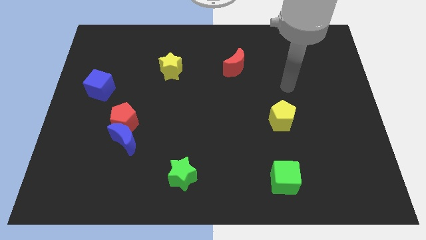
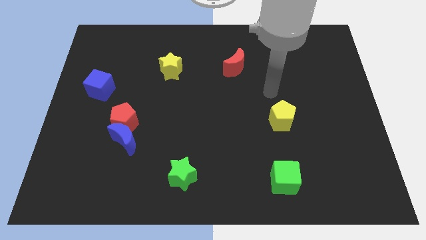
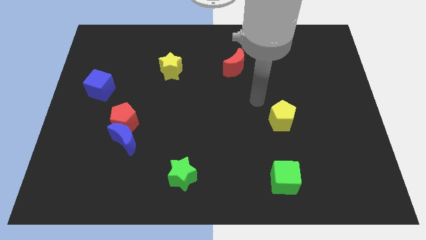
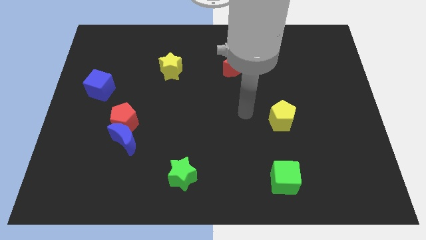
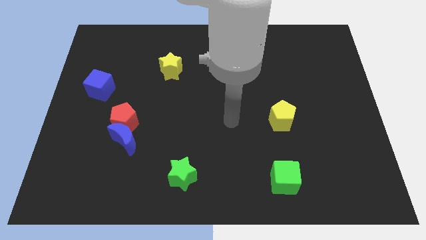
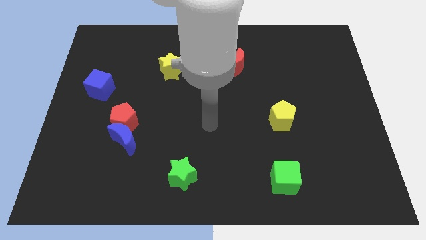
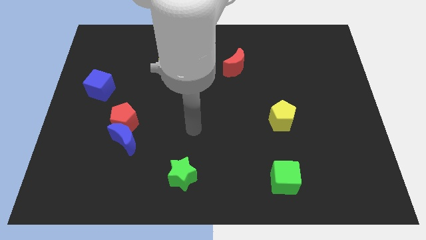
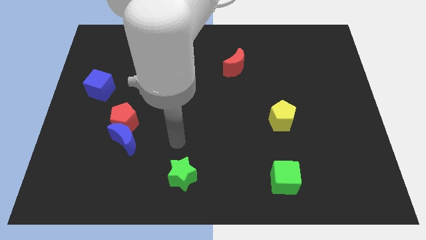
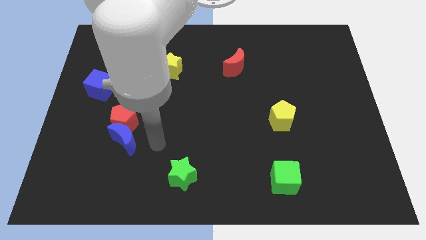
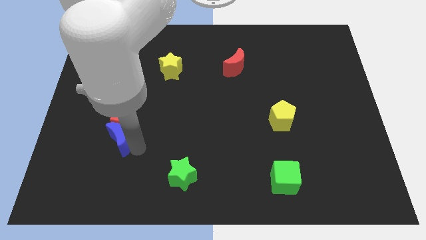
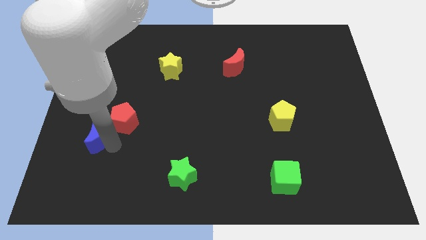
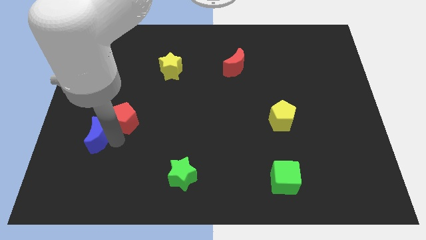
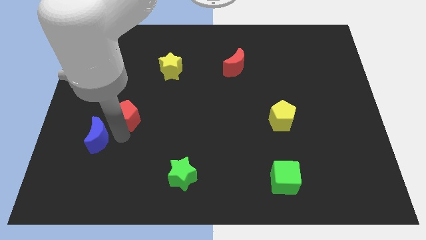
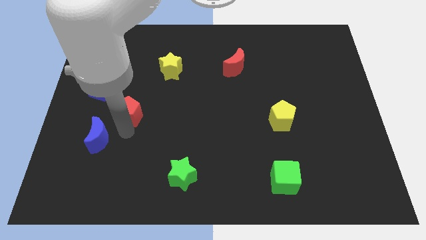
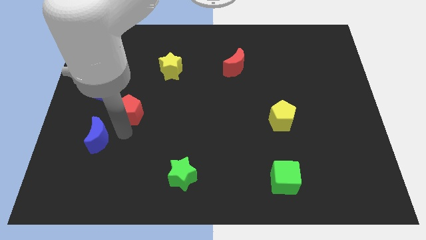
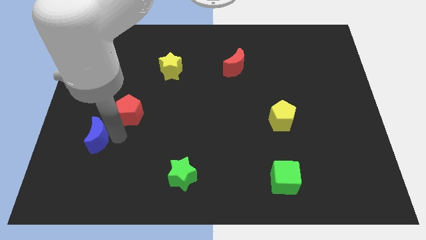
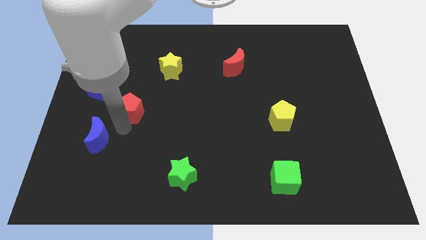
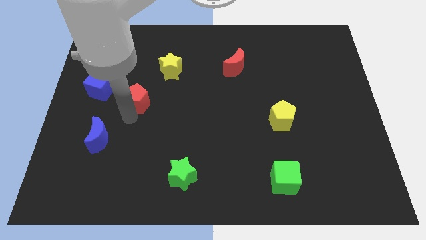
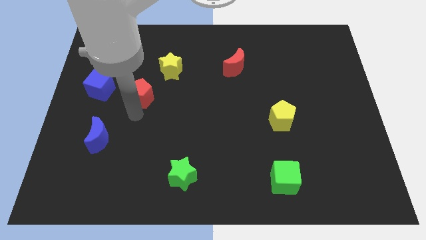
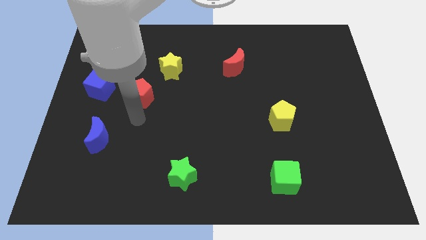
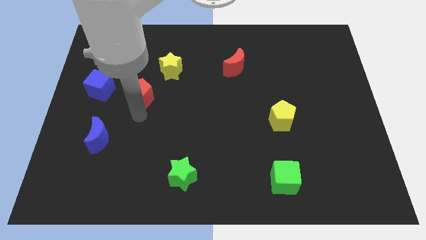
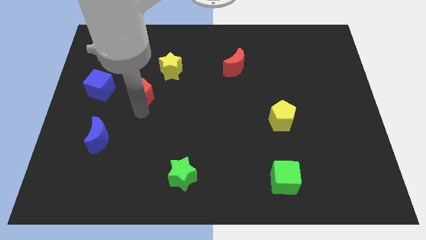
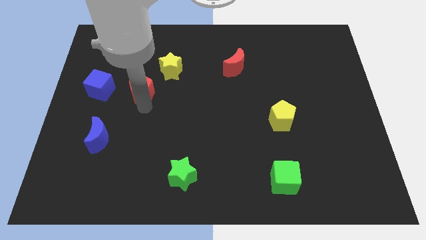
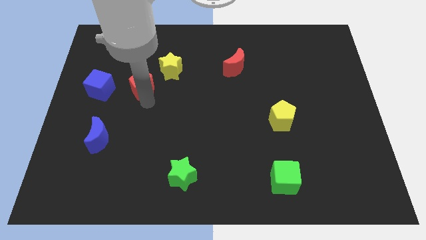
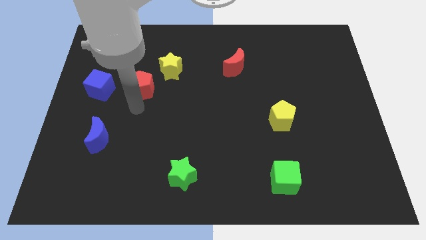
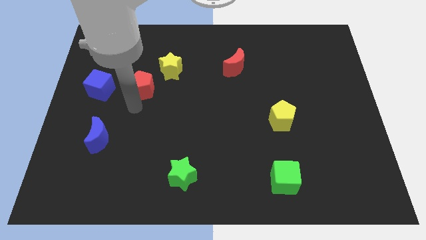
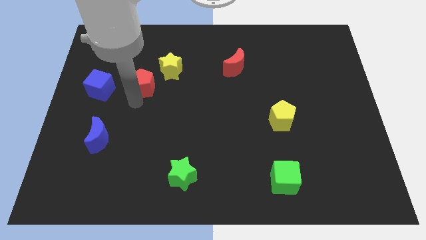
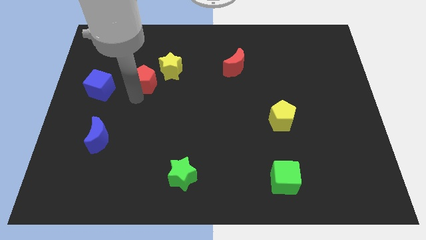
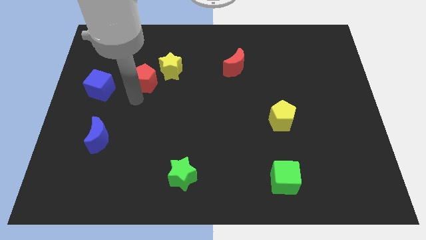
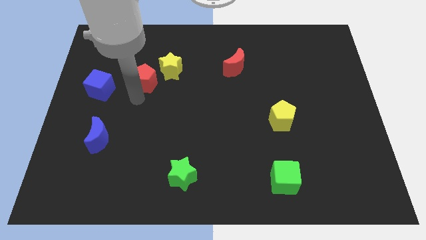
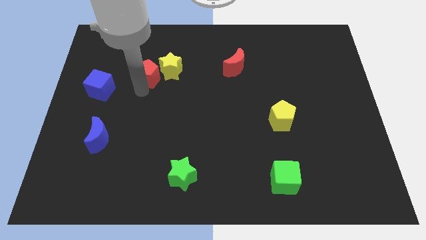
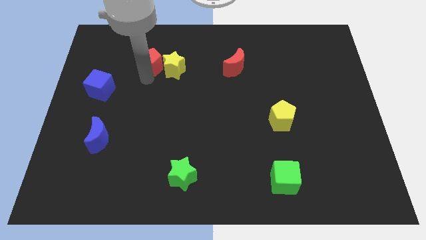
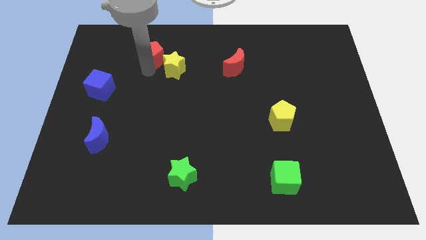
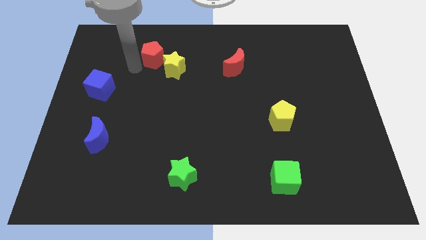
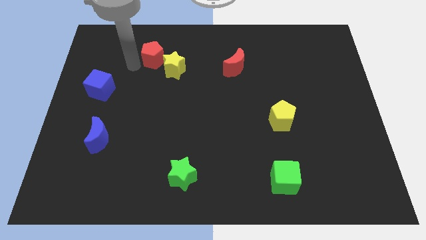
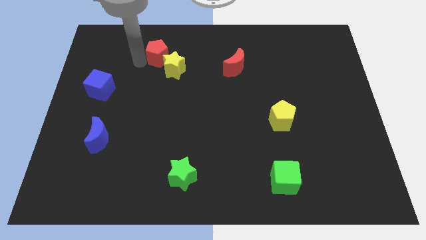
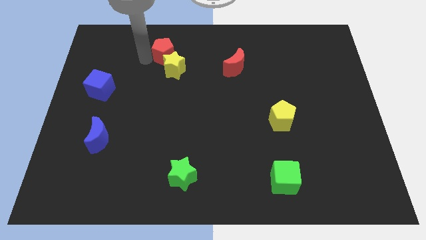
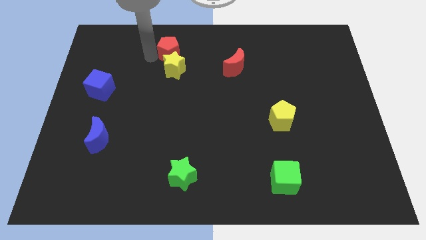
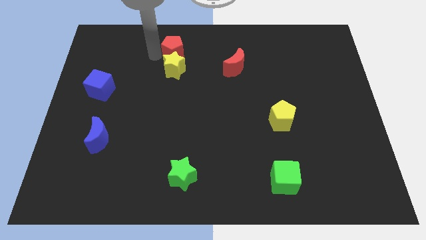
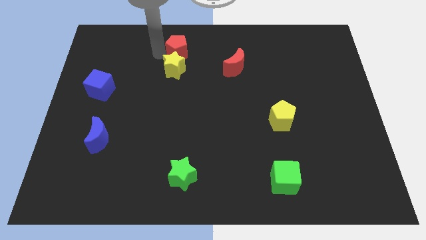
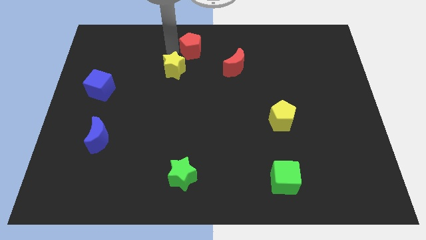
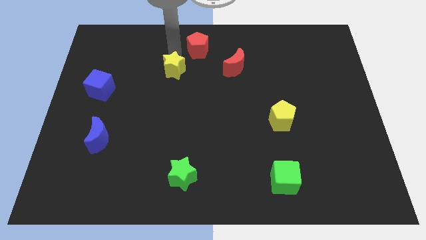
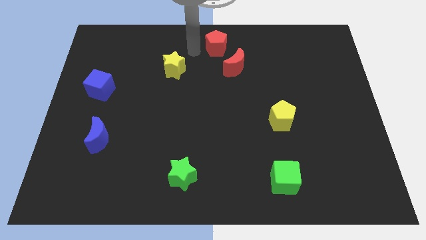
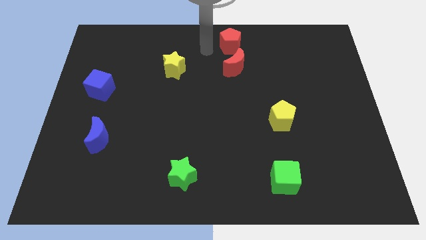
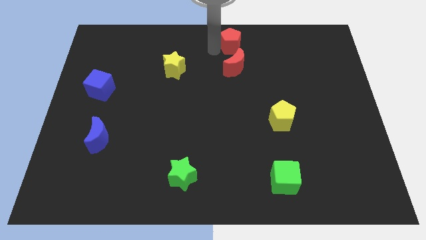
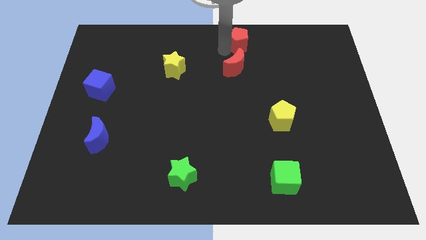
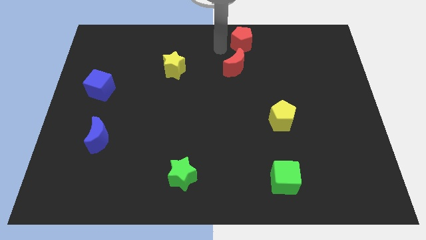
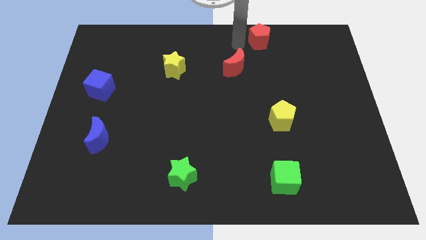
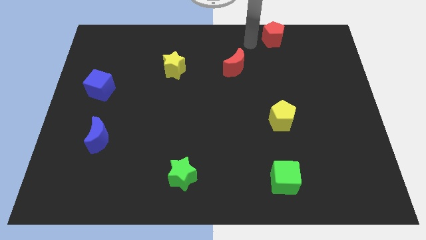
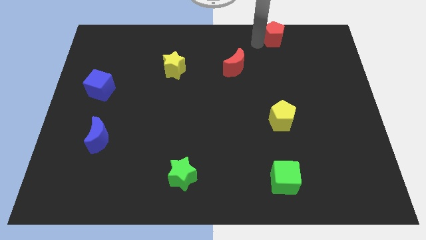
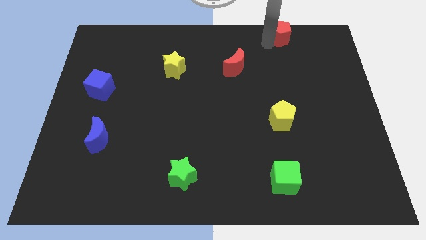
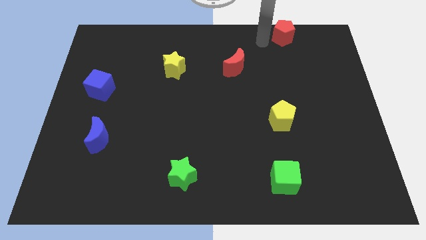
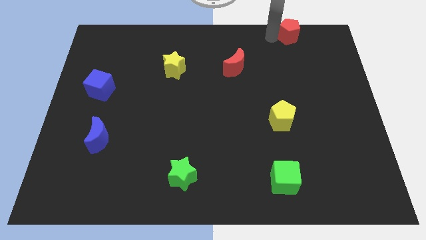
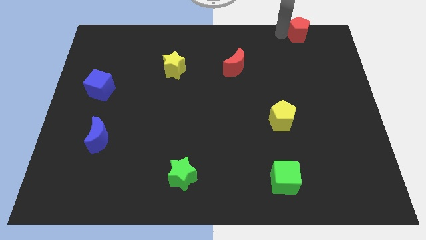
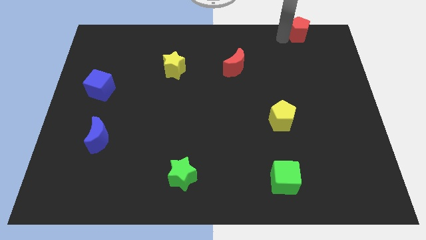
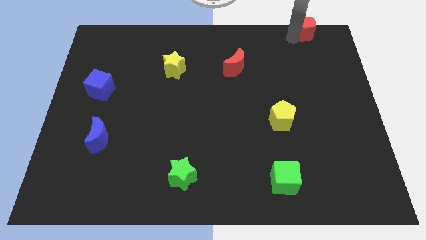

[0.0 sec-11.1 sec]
move the red pentagon to the top right
